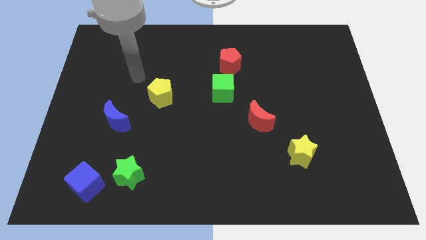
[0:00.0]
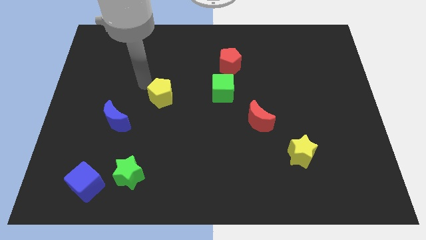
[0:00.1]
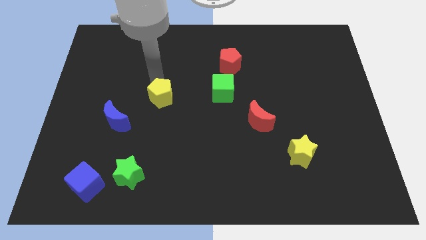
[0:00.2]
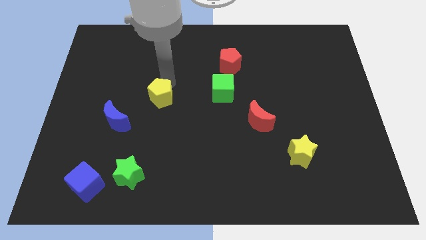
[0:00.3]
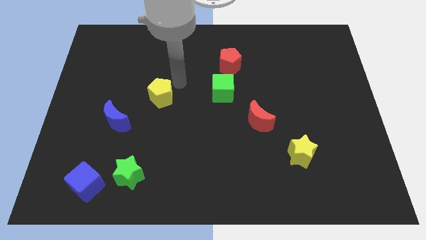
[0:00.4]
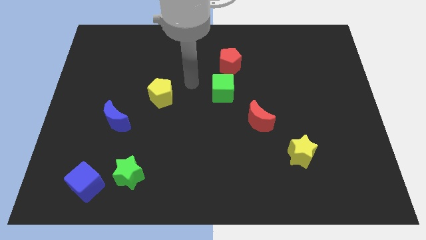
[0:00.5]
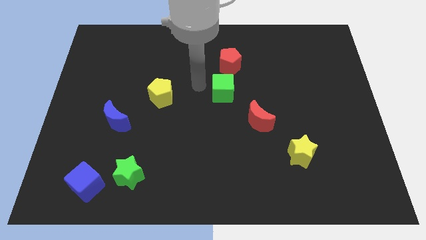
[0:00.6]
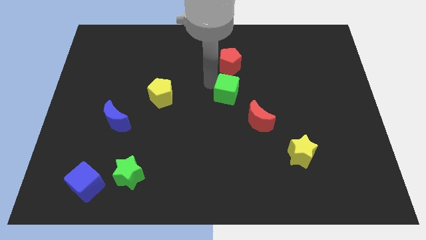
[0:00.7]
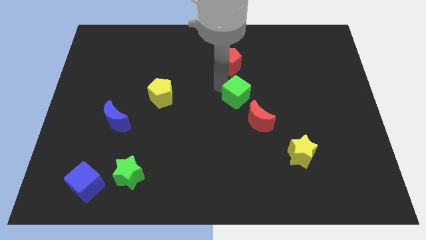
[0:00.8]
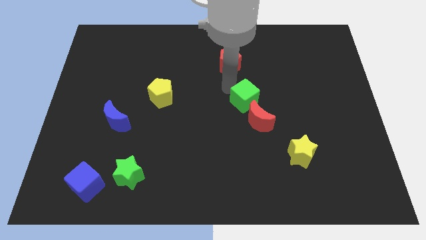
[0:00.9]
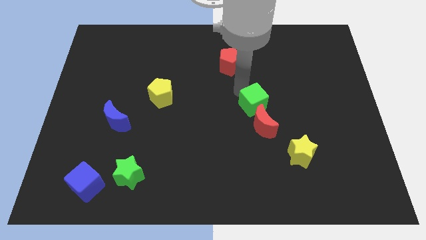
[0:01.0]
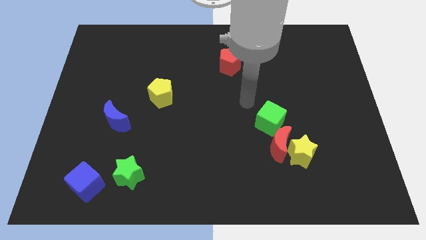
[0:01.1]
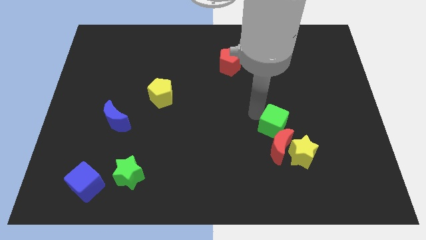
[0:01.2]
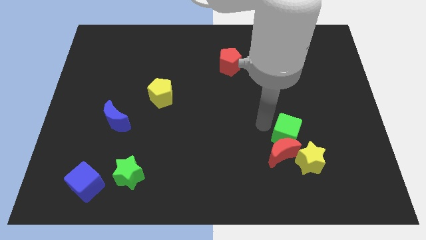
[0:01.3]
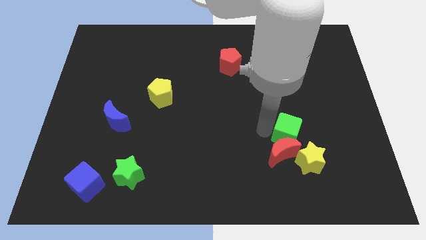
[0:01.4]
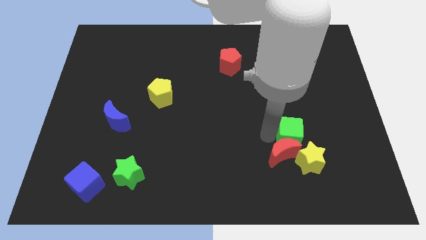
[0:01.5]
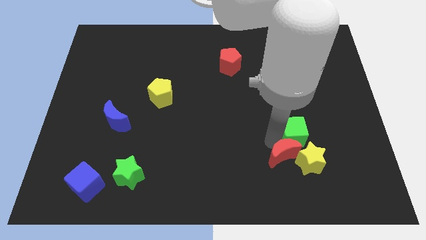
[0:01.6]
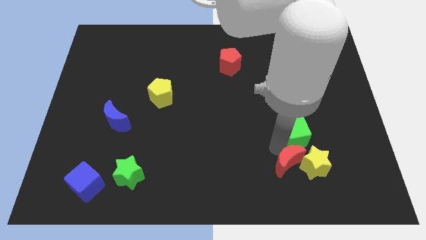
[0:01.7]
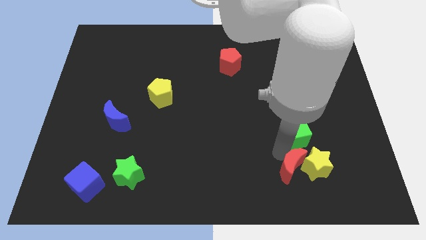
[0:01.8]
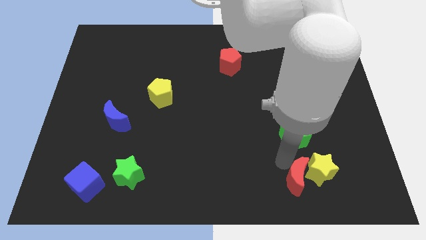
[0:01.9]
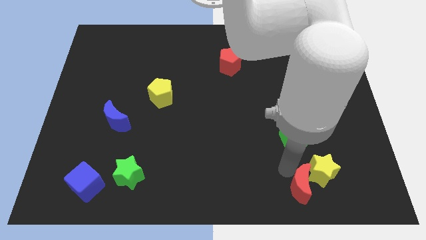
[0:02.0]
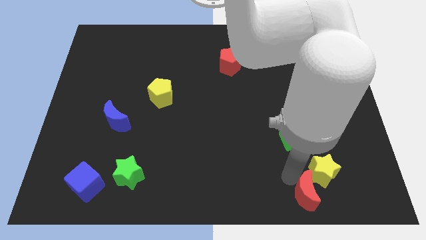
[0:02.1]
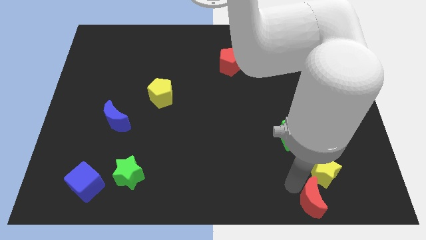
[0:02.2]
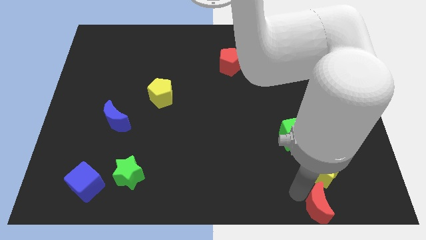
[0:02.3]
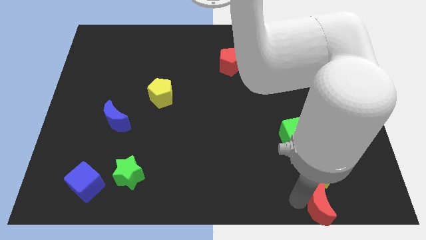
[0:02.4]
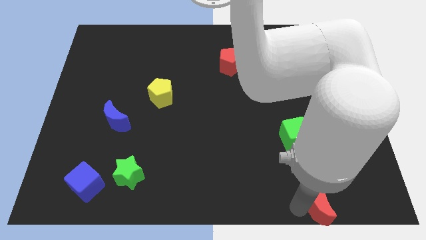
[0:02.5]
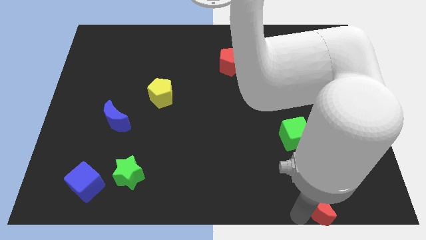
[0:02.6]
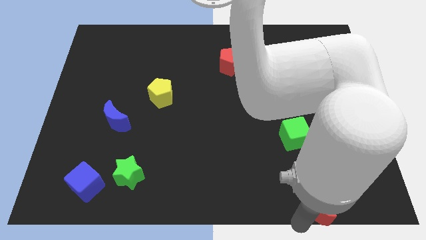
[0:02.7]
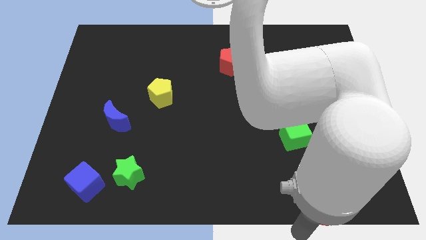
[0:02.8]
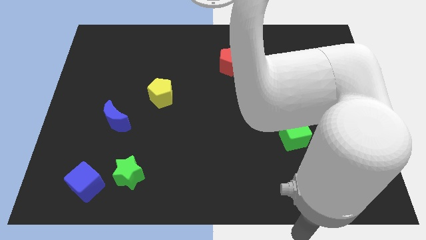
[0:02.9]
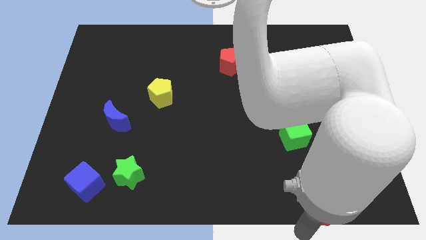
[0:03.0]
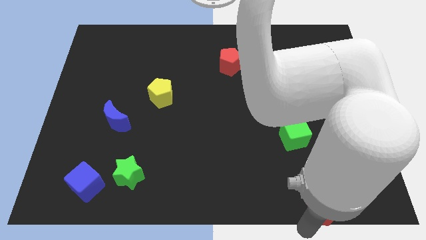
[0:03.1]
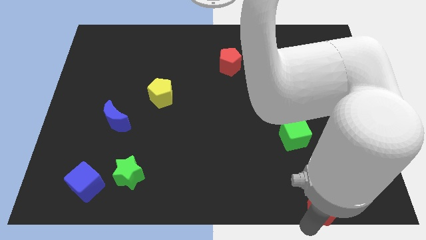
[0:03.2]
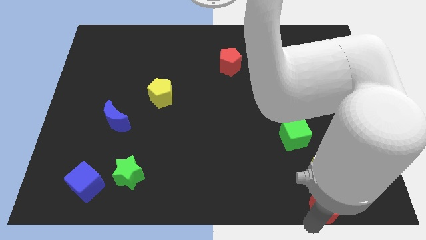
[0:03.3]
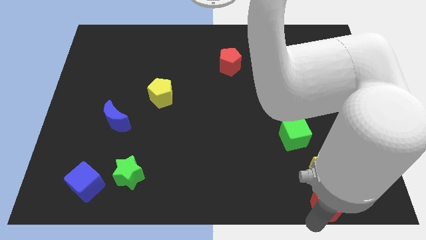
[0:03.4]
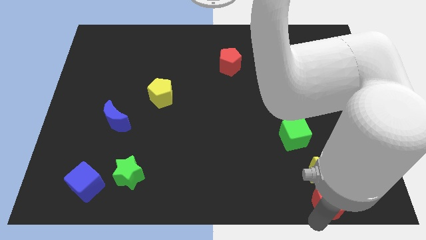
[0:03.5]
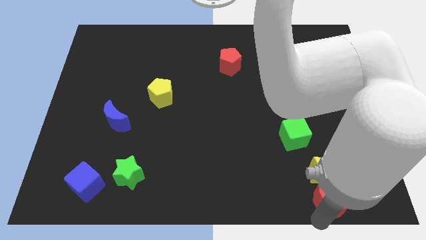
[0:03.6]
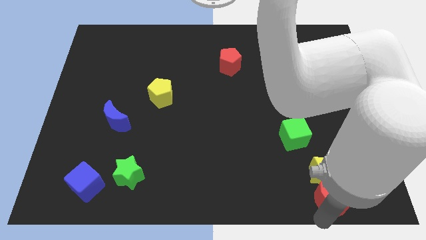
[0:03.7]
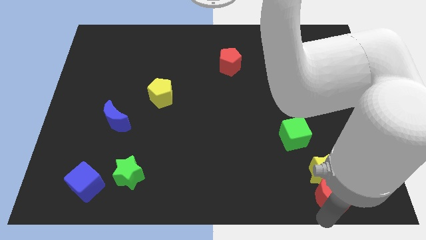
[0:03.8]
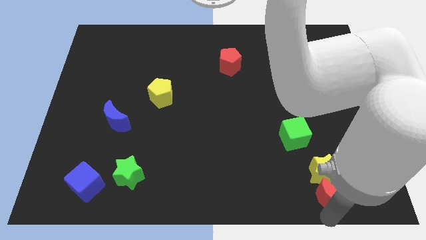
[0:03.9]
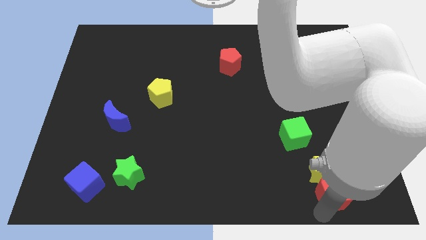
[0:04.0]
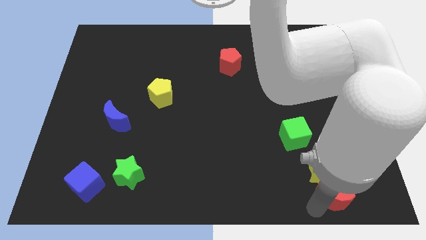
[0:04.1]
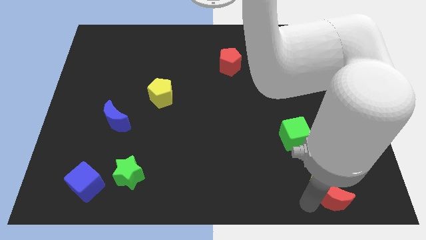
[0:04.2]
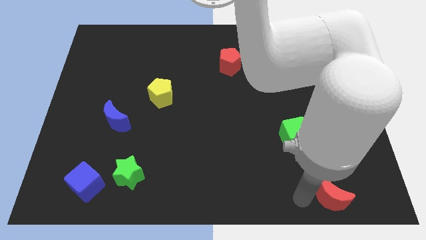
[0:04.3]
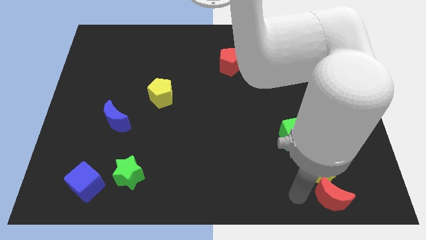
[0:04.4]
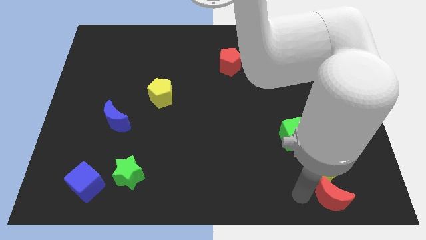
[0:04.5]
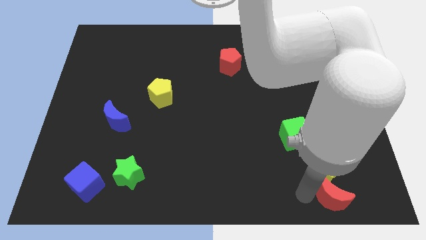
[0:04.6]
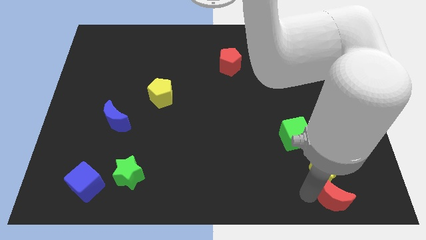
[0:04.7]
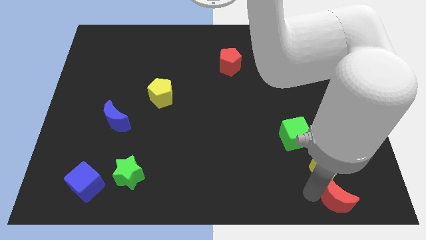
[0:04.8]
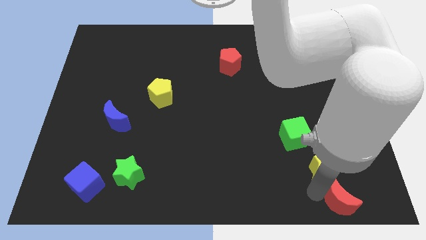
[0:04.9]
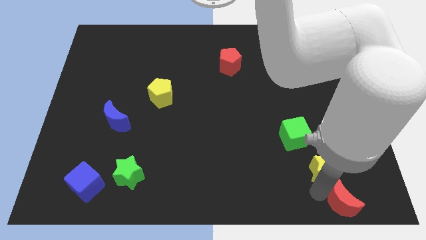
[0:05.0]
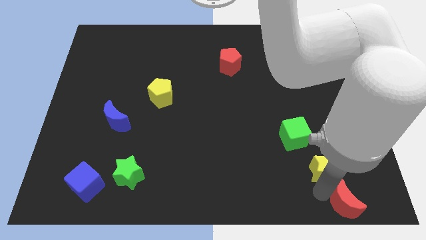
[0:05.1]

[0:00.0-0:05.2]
put the red moon to the bottom right of the board

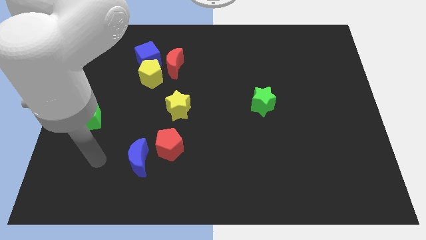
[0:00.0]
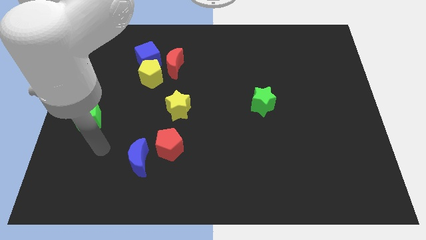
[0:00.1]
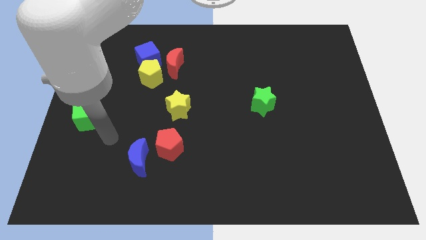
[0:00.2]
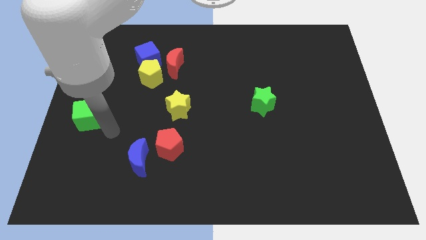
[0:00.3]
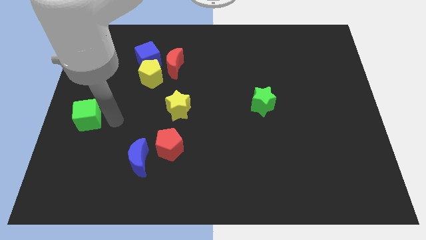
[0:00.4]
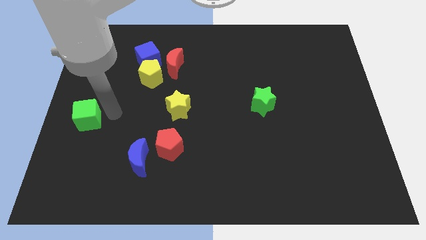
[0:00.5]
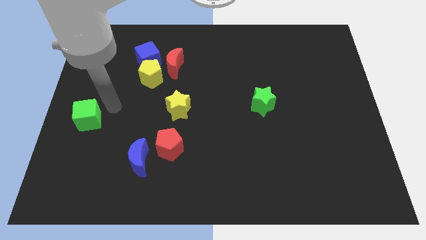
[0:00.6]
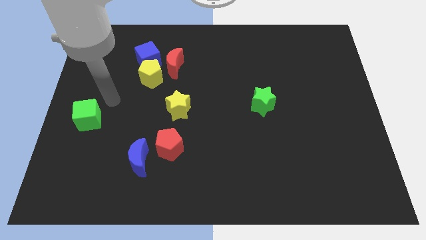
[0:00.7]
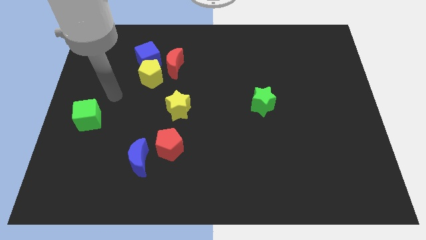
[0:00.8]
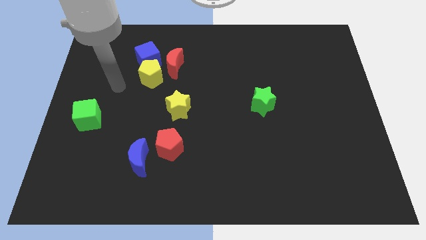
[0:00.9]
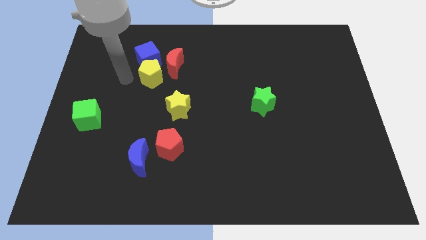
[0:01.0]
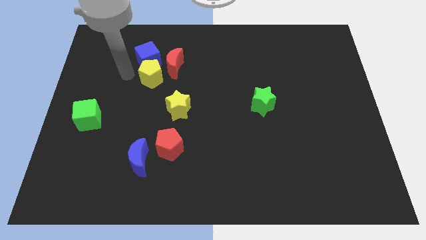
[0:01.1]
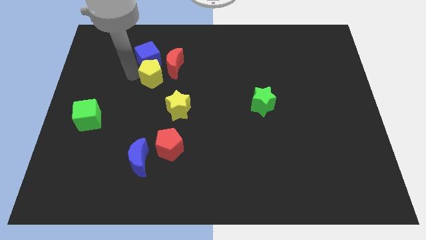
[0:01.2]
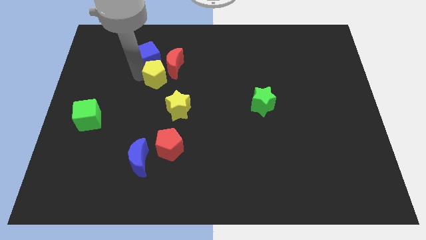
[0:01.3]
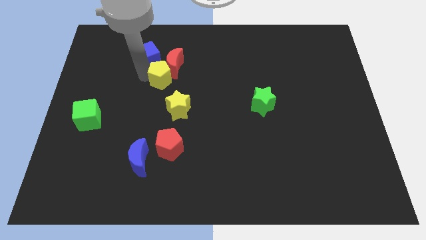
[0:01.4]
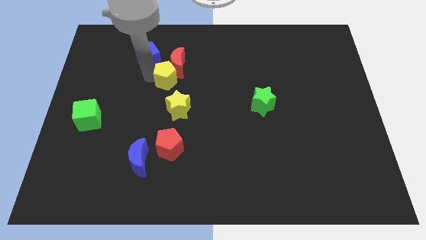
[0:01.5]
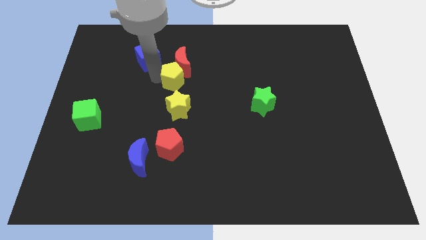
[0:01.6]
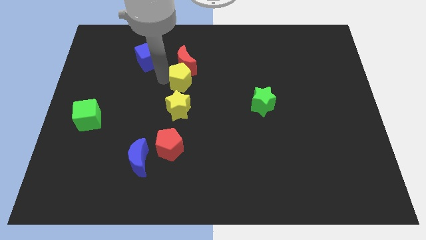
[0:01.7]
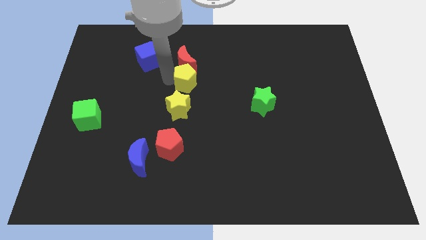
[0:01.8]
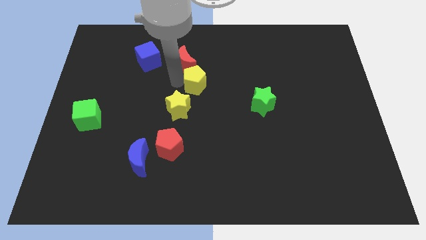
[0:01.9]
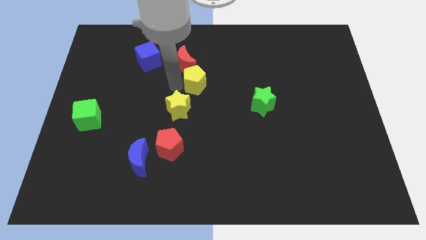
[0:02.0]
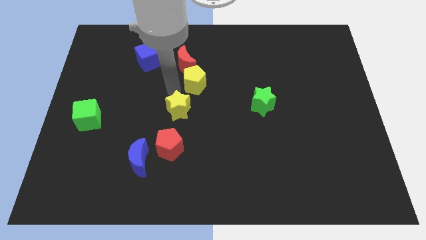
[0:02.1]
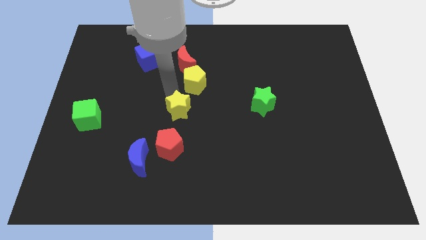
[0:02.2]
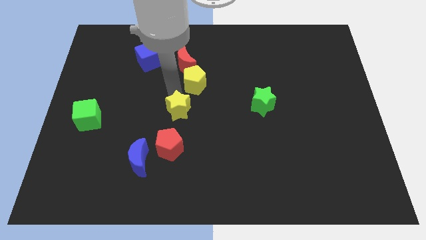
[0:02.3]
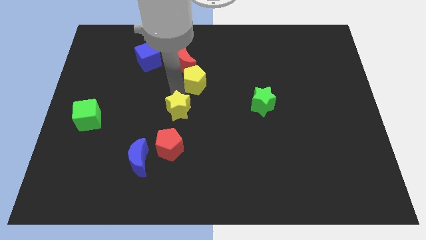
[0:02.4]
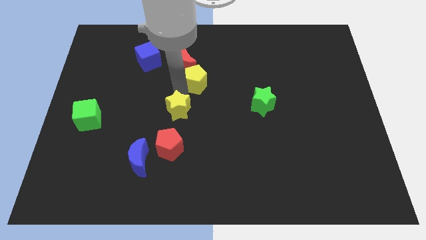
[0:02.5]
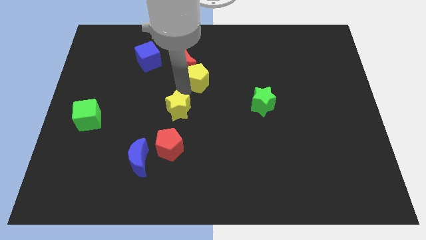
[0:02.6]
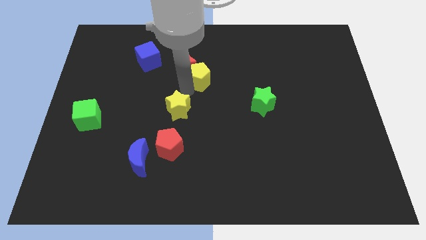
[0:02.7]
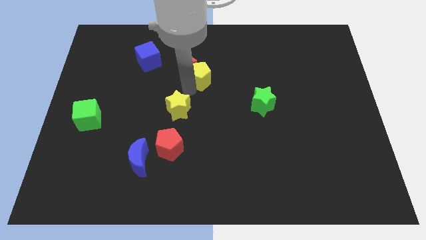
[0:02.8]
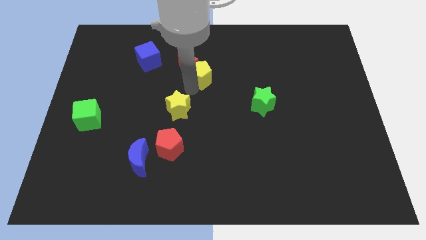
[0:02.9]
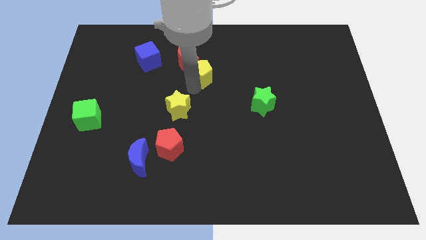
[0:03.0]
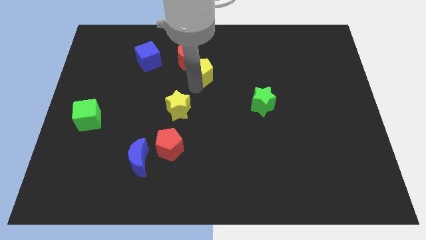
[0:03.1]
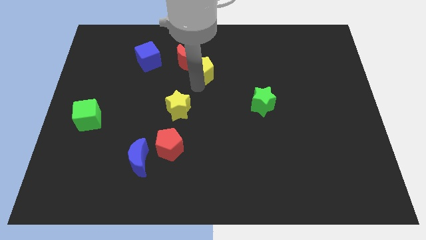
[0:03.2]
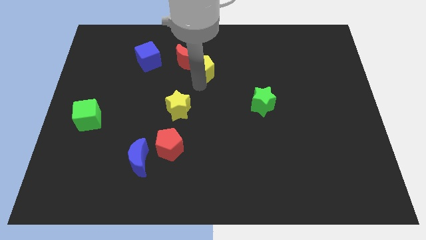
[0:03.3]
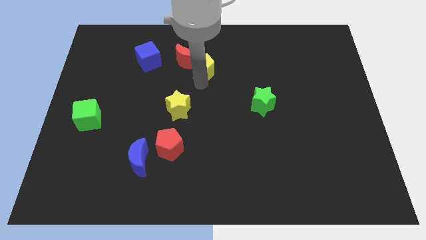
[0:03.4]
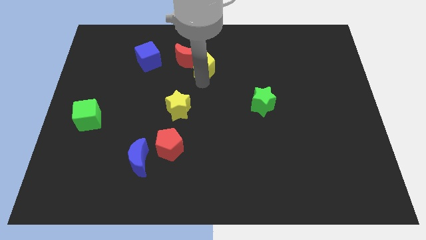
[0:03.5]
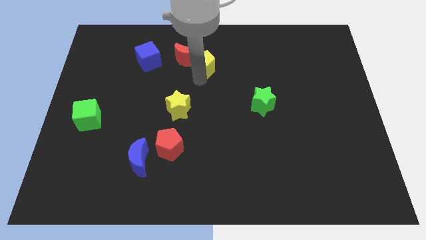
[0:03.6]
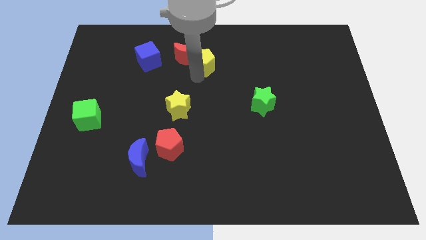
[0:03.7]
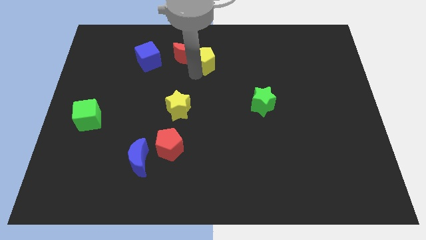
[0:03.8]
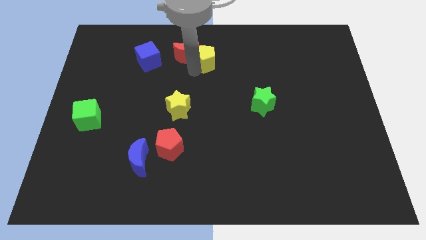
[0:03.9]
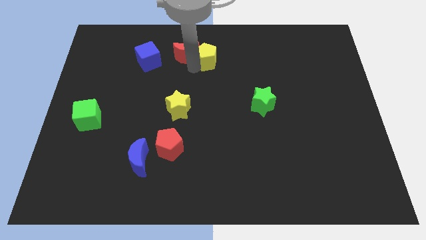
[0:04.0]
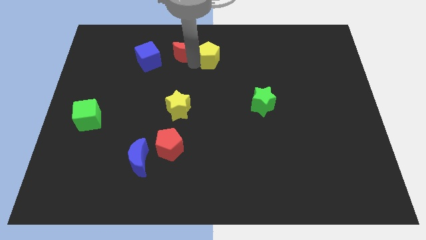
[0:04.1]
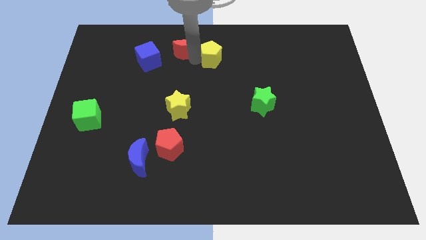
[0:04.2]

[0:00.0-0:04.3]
move the yellow pentagon to the top side
